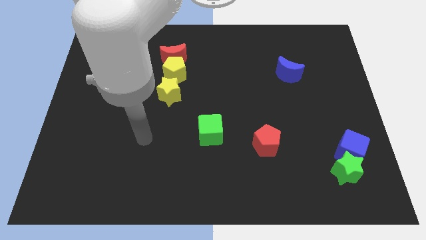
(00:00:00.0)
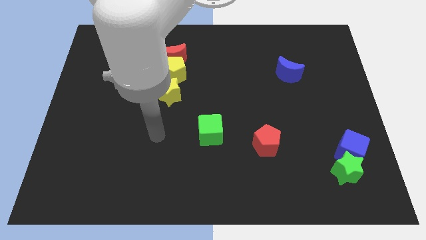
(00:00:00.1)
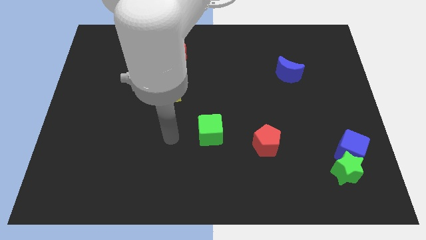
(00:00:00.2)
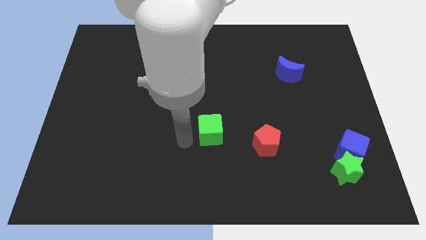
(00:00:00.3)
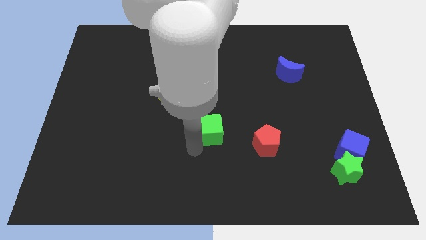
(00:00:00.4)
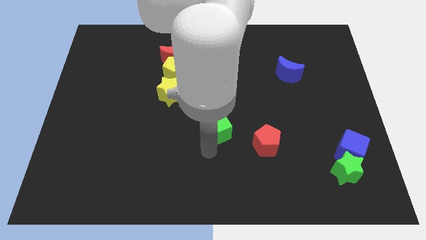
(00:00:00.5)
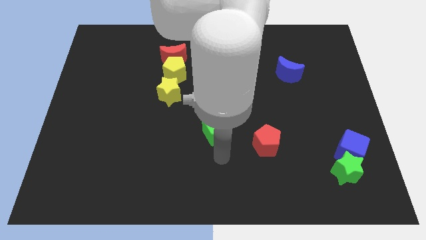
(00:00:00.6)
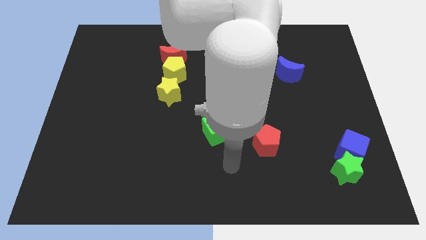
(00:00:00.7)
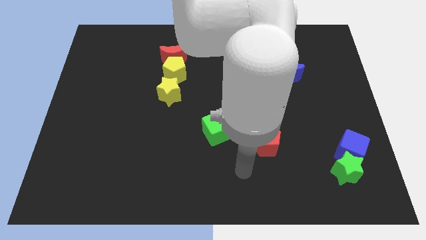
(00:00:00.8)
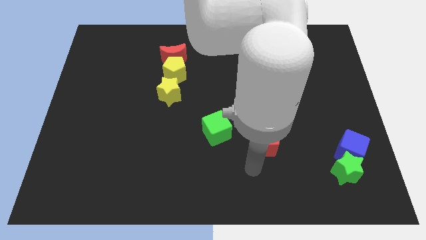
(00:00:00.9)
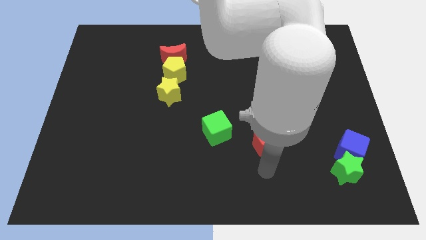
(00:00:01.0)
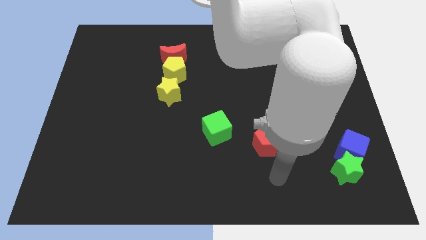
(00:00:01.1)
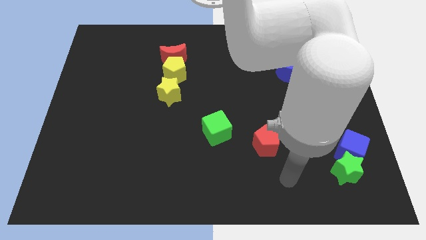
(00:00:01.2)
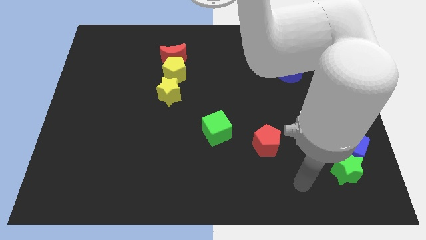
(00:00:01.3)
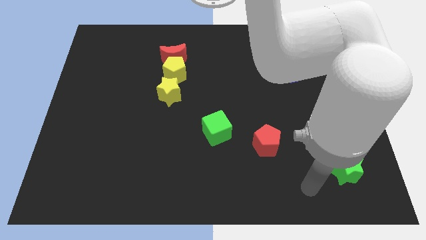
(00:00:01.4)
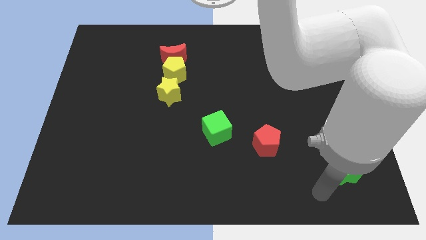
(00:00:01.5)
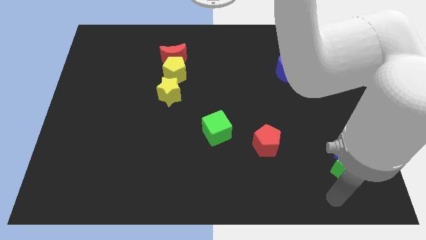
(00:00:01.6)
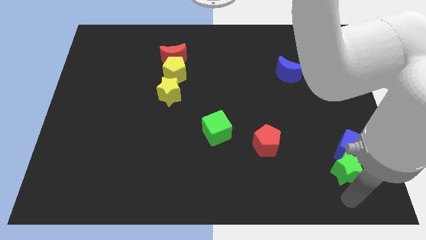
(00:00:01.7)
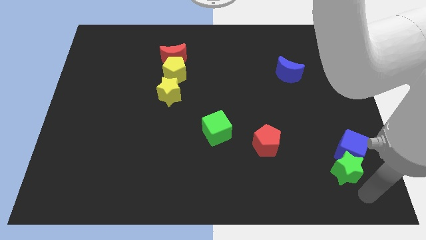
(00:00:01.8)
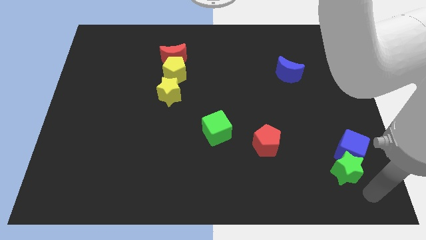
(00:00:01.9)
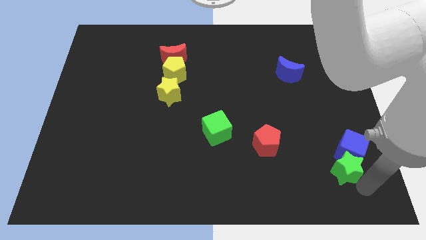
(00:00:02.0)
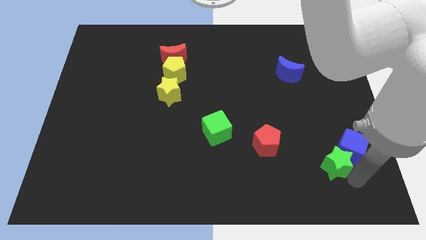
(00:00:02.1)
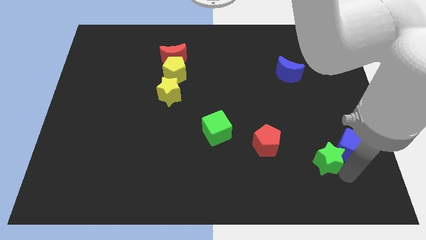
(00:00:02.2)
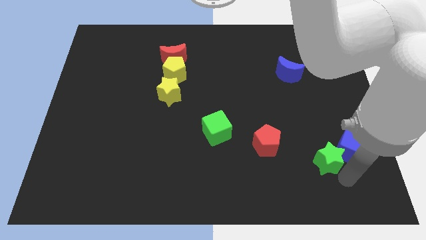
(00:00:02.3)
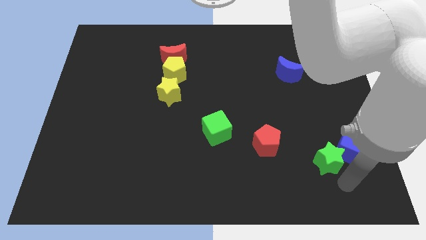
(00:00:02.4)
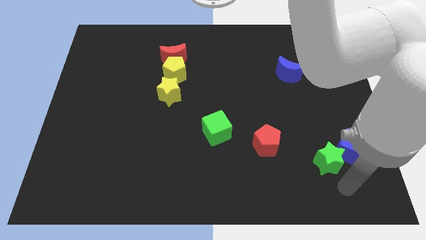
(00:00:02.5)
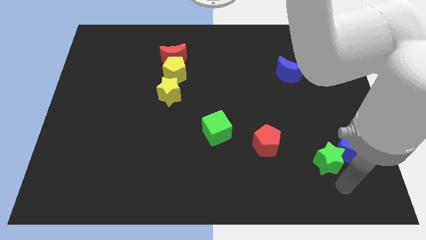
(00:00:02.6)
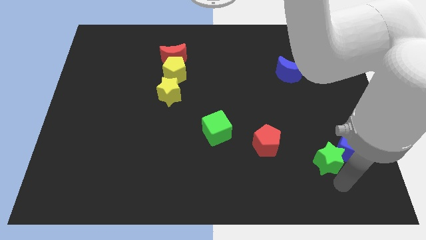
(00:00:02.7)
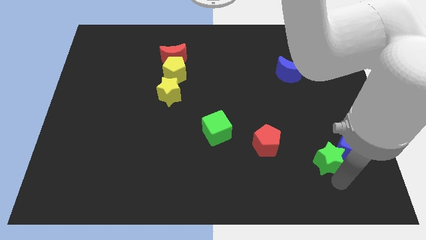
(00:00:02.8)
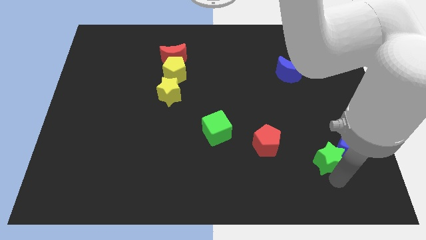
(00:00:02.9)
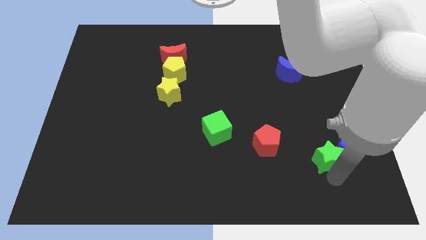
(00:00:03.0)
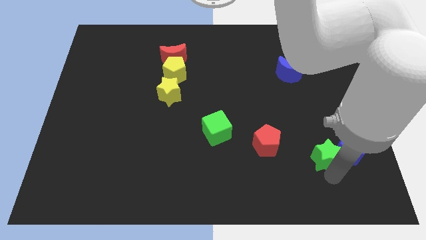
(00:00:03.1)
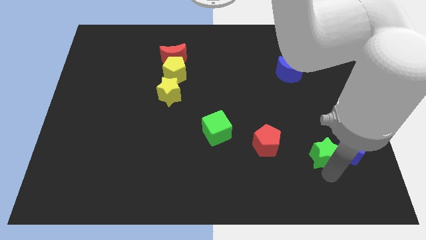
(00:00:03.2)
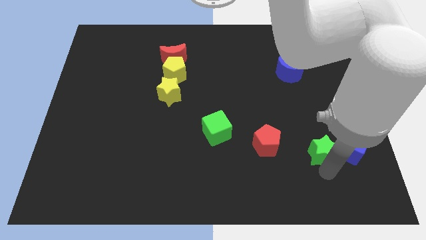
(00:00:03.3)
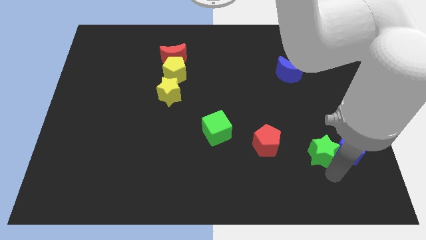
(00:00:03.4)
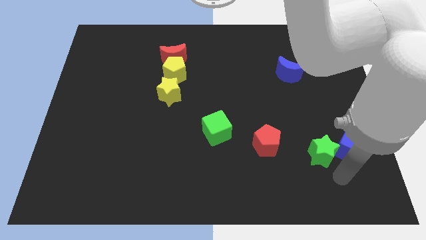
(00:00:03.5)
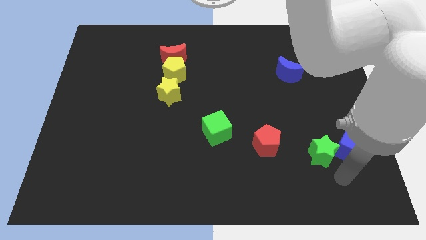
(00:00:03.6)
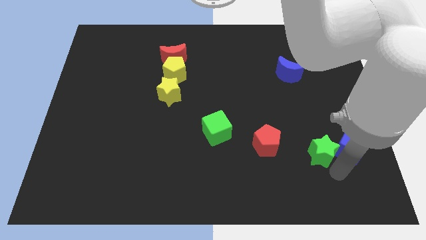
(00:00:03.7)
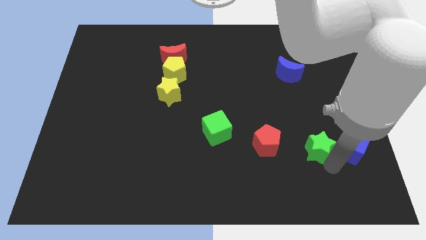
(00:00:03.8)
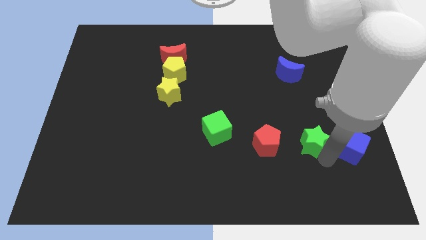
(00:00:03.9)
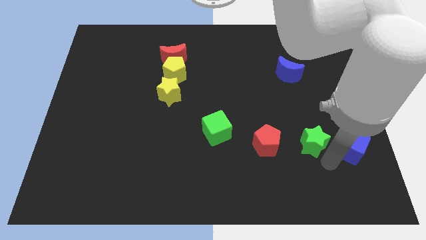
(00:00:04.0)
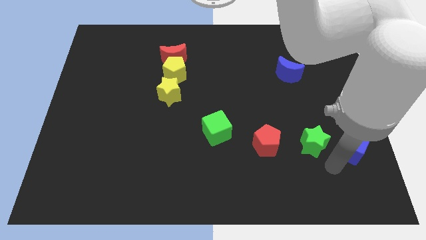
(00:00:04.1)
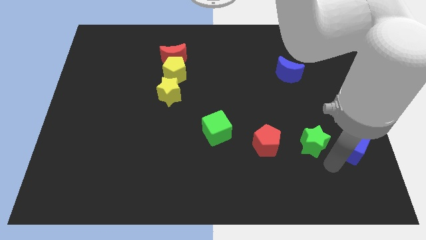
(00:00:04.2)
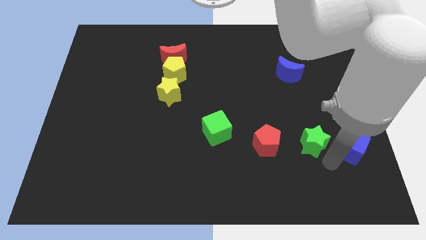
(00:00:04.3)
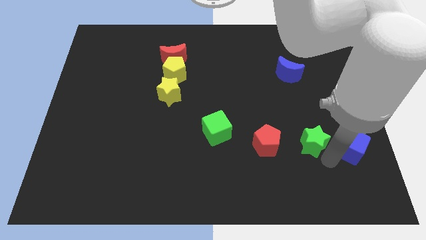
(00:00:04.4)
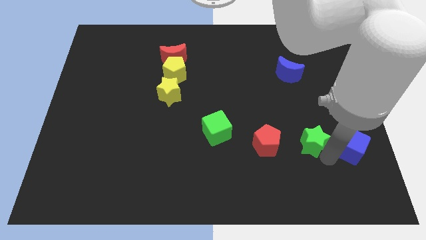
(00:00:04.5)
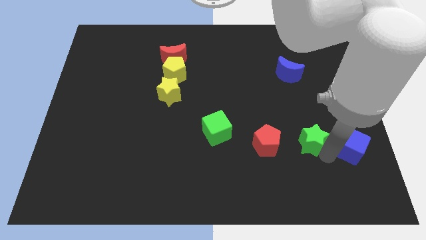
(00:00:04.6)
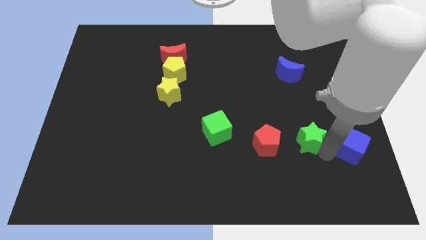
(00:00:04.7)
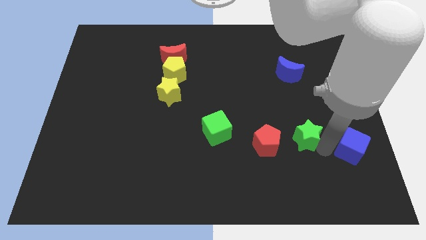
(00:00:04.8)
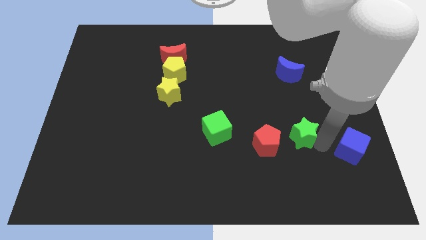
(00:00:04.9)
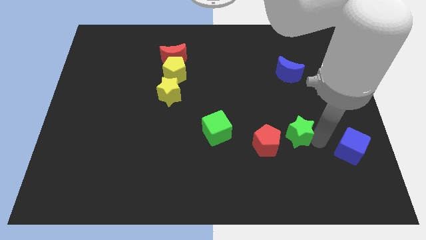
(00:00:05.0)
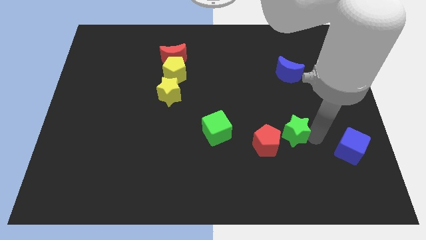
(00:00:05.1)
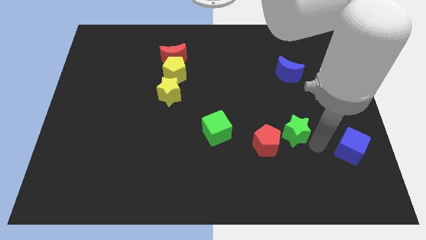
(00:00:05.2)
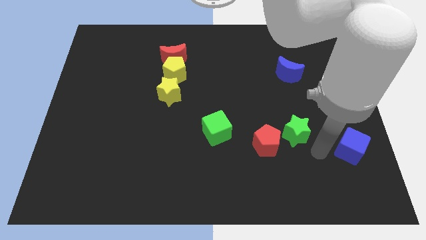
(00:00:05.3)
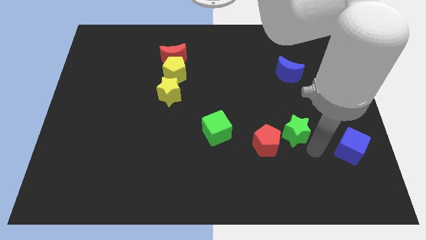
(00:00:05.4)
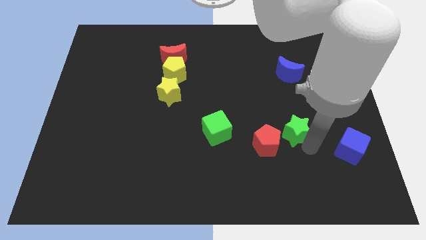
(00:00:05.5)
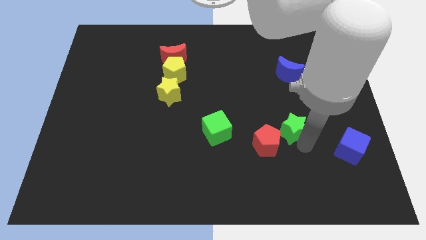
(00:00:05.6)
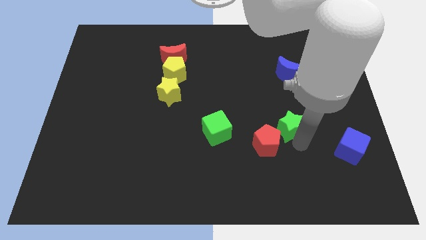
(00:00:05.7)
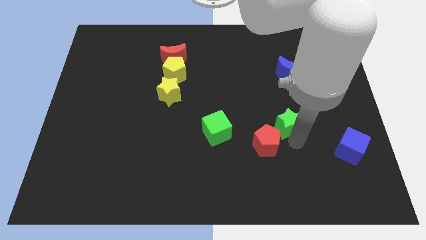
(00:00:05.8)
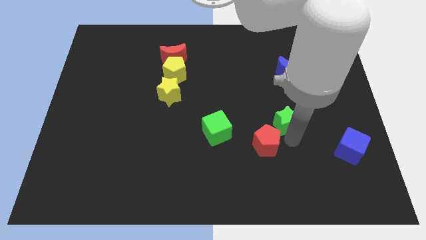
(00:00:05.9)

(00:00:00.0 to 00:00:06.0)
slide the green star above the red pentagon

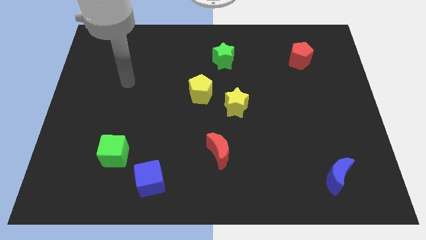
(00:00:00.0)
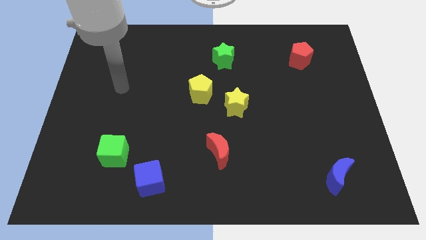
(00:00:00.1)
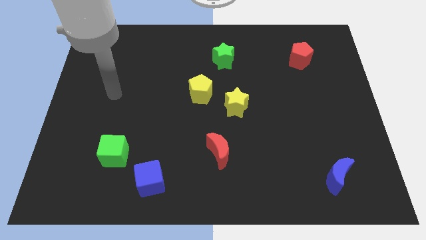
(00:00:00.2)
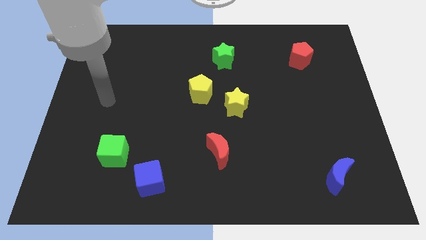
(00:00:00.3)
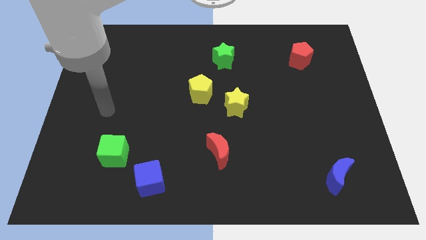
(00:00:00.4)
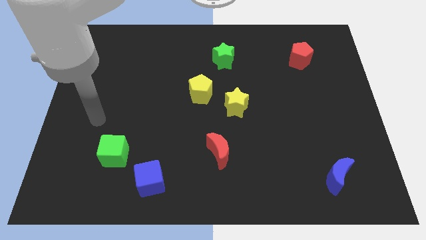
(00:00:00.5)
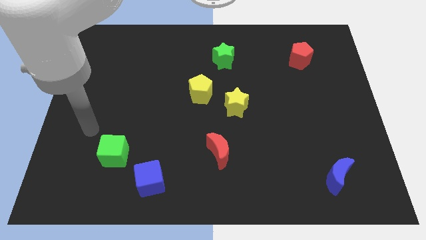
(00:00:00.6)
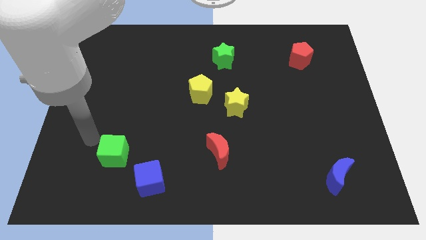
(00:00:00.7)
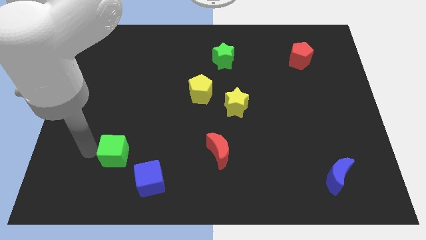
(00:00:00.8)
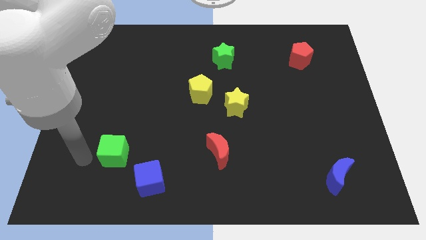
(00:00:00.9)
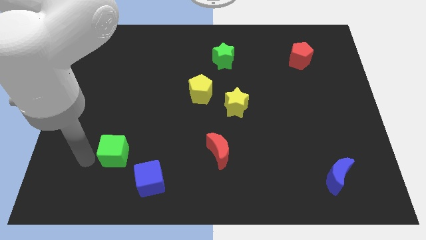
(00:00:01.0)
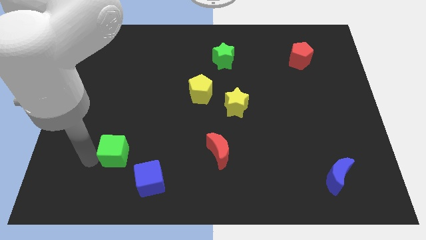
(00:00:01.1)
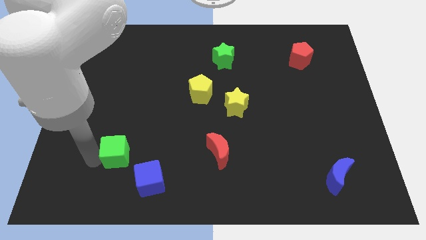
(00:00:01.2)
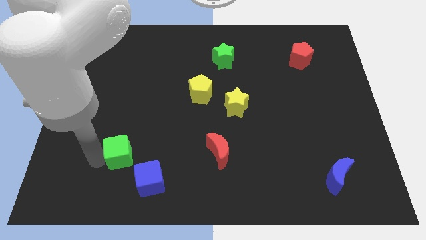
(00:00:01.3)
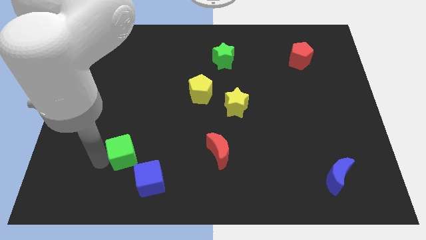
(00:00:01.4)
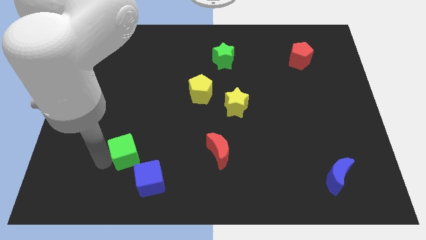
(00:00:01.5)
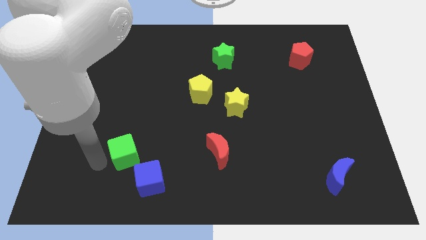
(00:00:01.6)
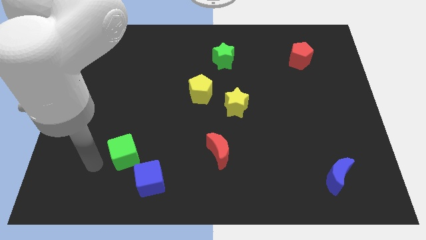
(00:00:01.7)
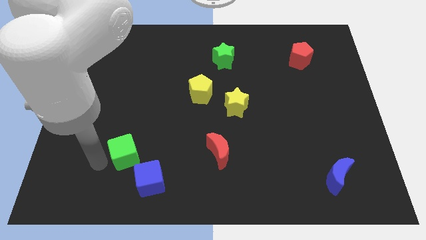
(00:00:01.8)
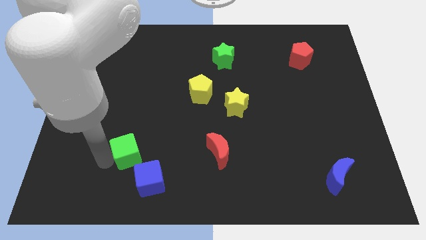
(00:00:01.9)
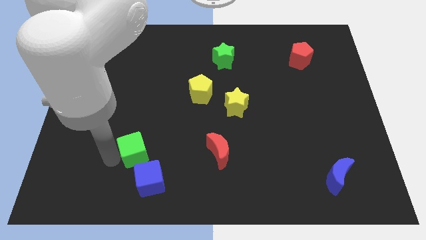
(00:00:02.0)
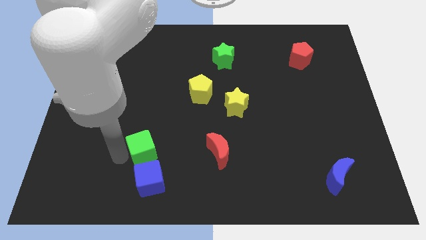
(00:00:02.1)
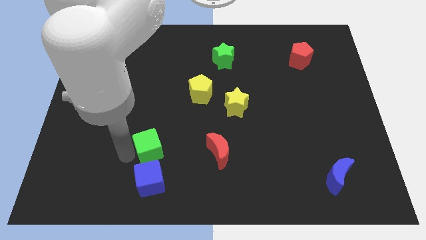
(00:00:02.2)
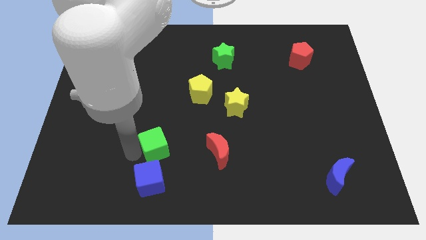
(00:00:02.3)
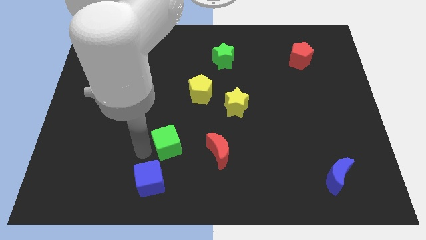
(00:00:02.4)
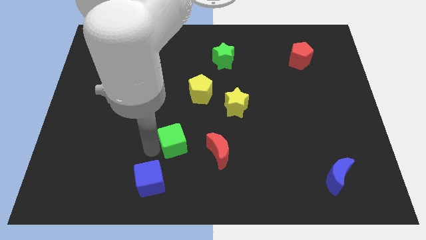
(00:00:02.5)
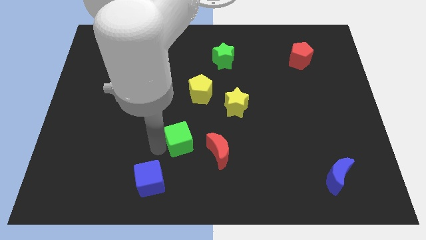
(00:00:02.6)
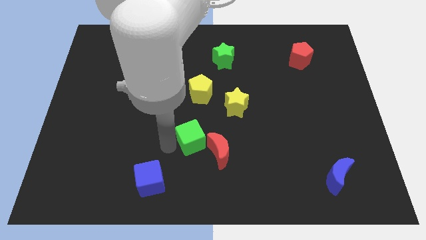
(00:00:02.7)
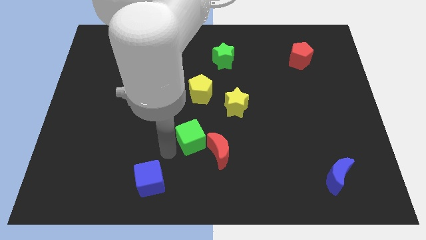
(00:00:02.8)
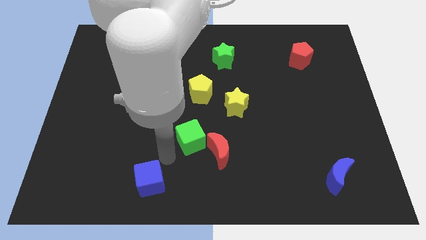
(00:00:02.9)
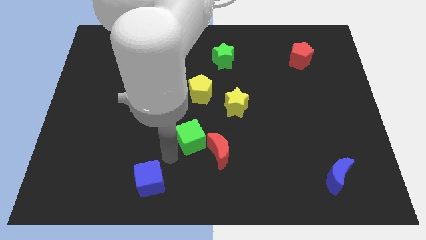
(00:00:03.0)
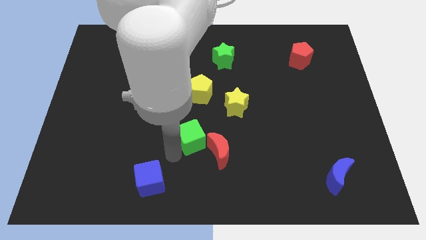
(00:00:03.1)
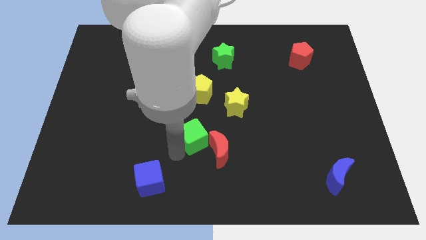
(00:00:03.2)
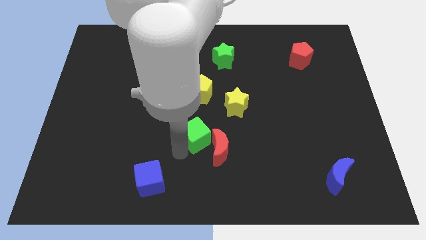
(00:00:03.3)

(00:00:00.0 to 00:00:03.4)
push the green cube to the bottom left of the yellow star
